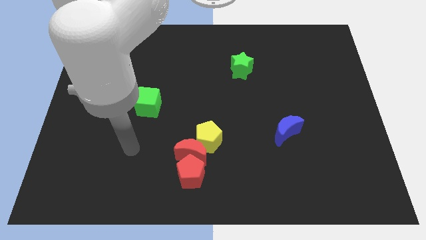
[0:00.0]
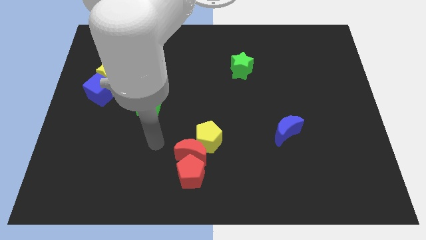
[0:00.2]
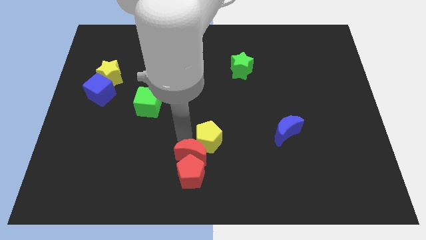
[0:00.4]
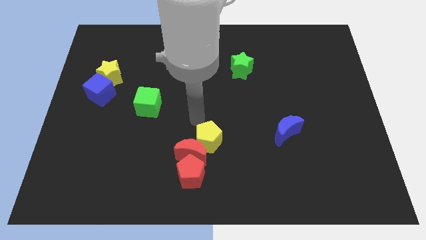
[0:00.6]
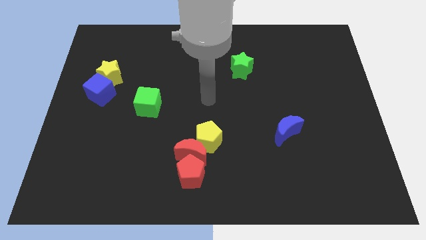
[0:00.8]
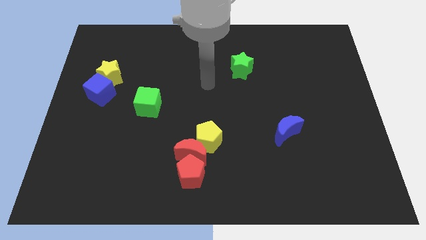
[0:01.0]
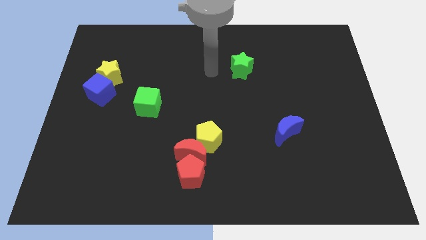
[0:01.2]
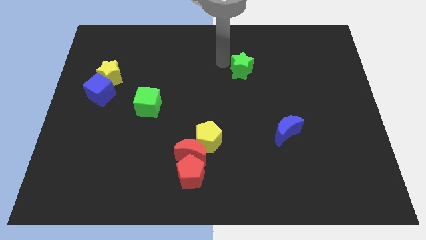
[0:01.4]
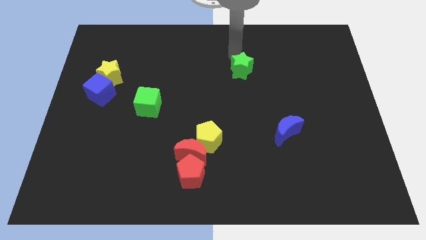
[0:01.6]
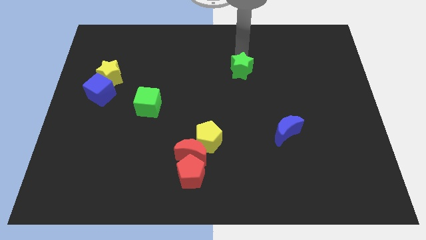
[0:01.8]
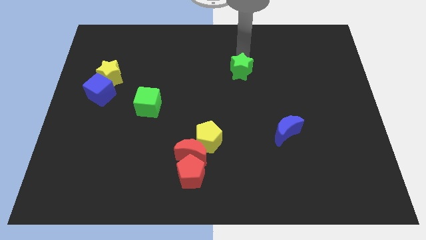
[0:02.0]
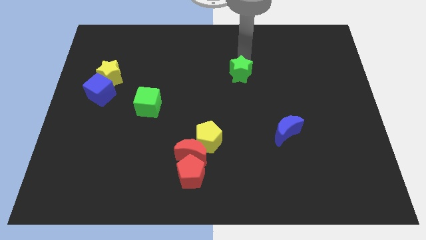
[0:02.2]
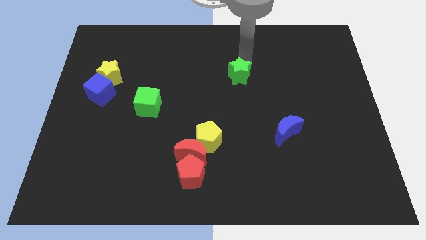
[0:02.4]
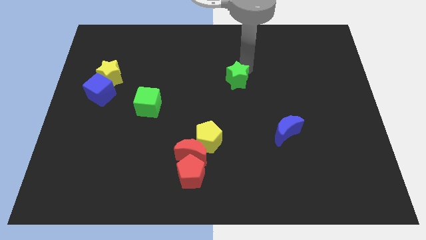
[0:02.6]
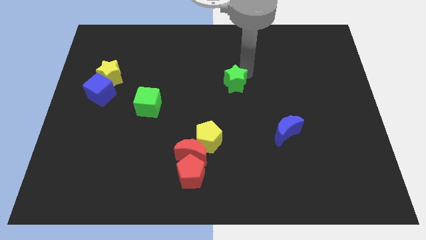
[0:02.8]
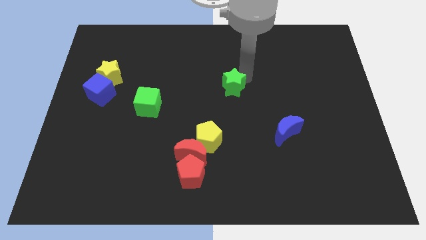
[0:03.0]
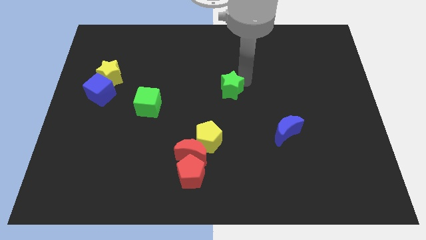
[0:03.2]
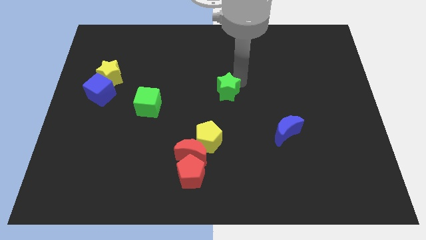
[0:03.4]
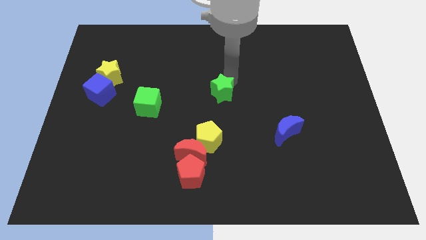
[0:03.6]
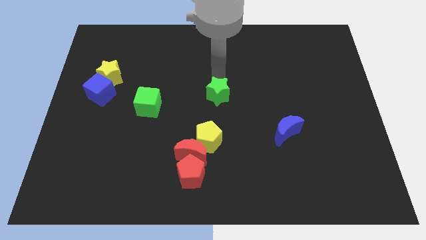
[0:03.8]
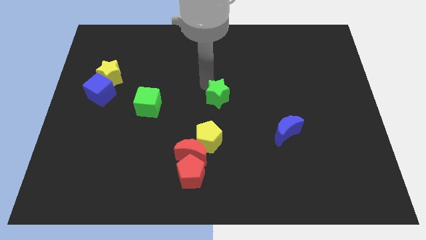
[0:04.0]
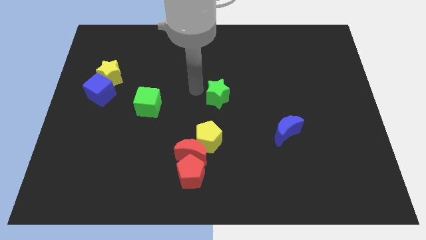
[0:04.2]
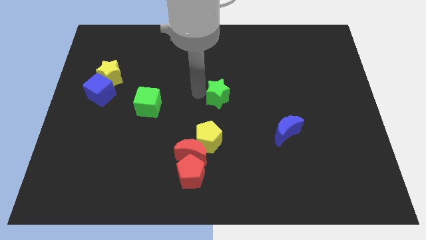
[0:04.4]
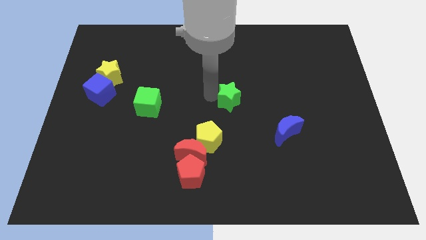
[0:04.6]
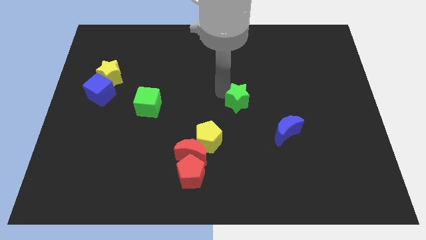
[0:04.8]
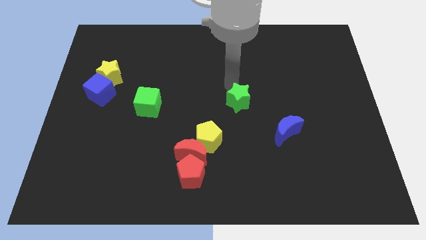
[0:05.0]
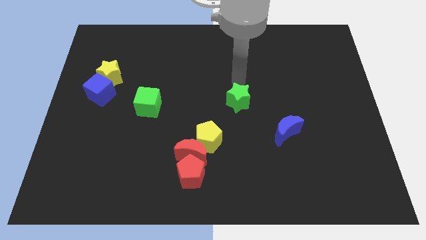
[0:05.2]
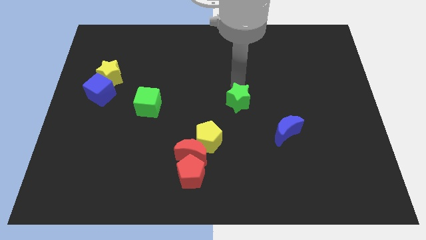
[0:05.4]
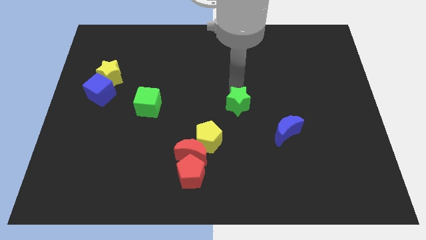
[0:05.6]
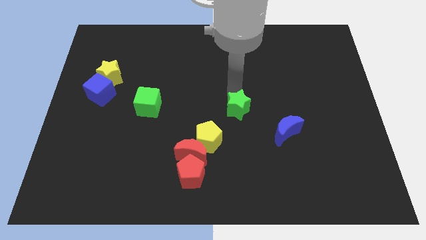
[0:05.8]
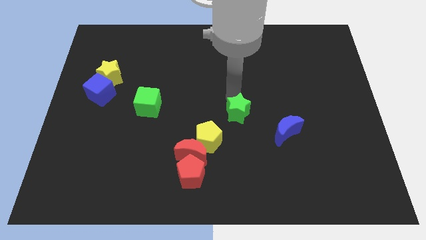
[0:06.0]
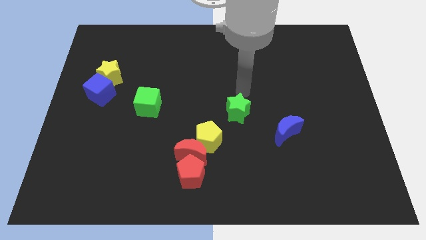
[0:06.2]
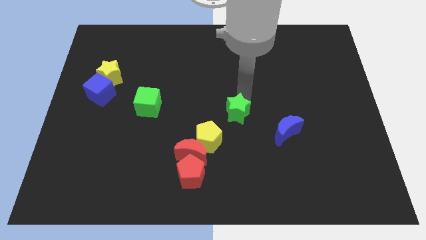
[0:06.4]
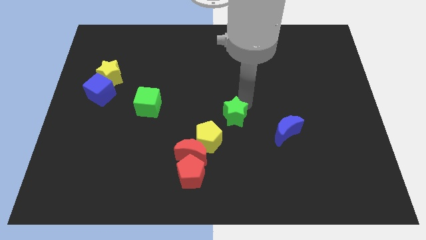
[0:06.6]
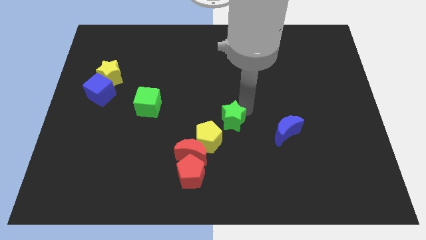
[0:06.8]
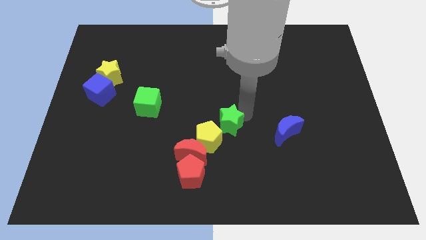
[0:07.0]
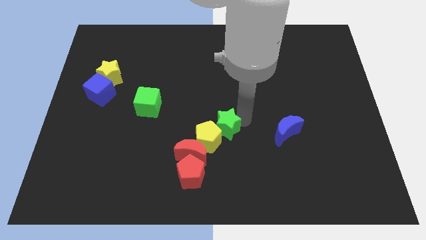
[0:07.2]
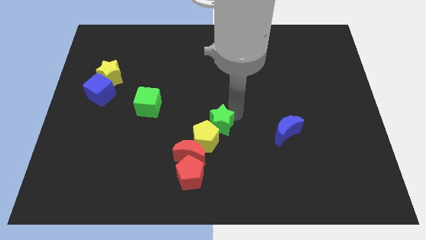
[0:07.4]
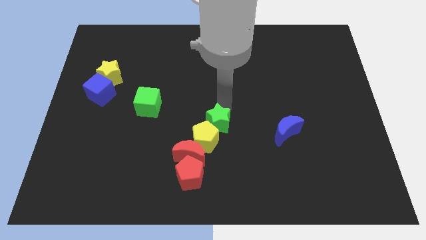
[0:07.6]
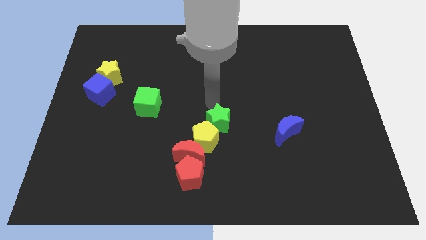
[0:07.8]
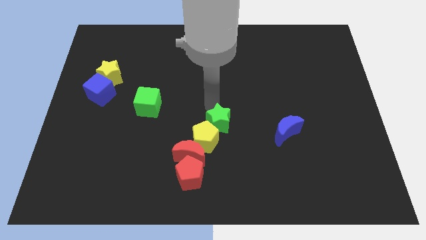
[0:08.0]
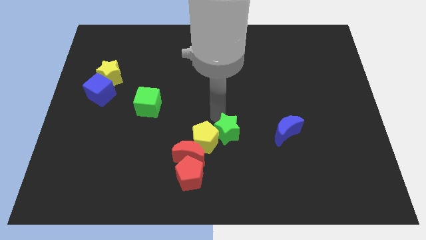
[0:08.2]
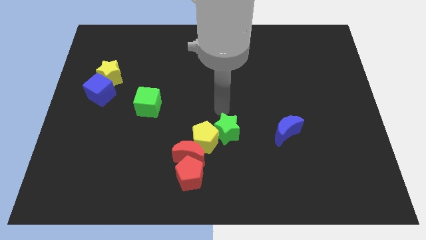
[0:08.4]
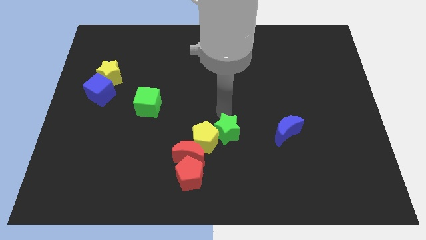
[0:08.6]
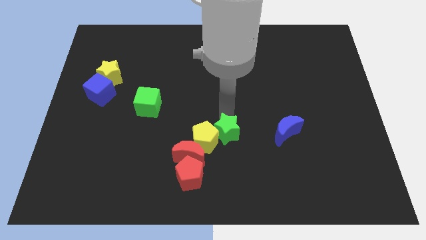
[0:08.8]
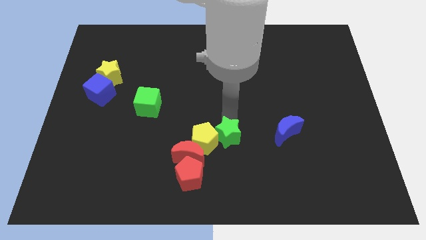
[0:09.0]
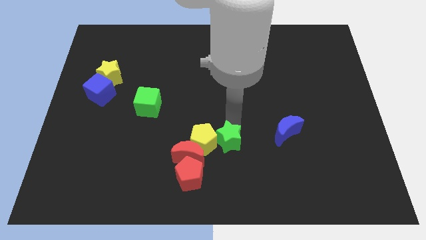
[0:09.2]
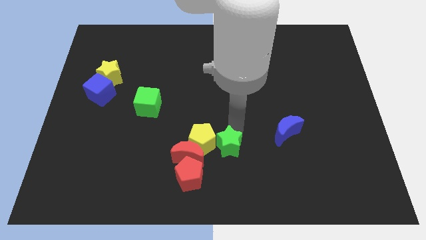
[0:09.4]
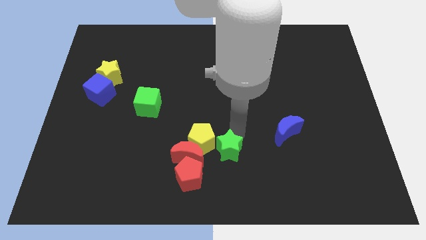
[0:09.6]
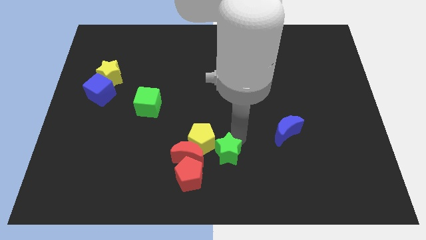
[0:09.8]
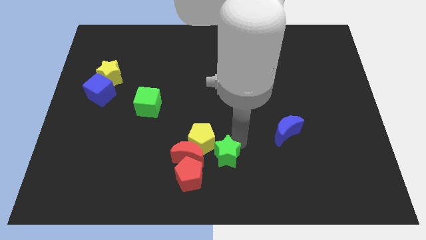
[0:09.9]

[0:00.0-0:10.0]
push the green star to the bottom
